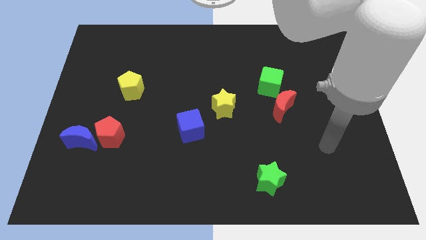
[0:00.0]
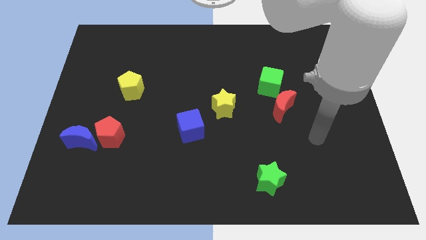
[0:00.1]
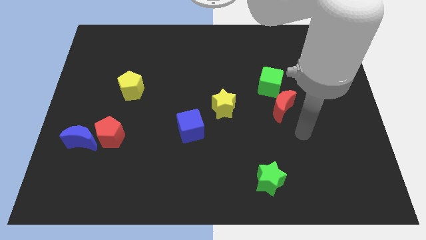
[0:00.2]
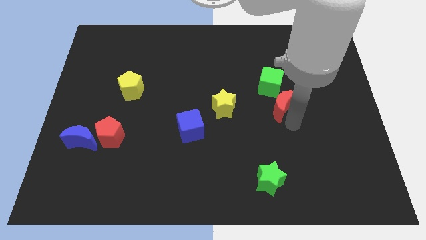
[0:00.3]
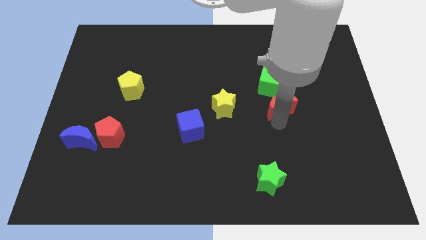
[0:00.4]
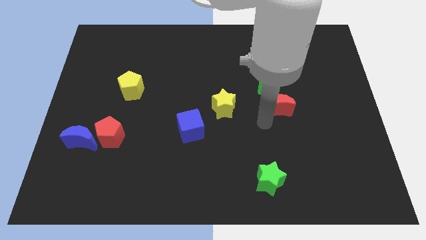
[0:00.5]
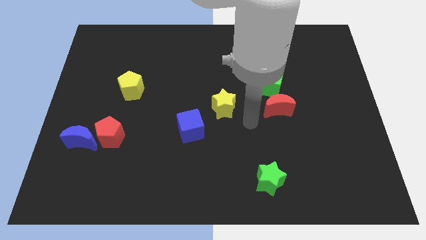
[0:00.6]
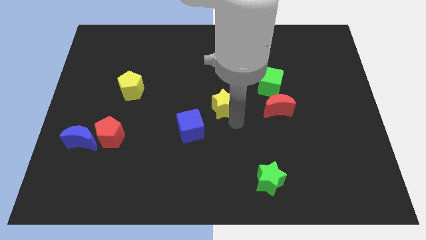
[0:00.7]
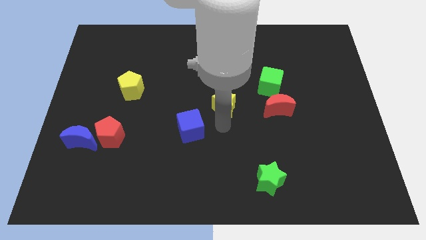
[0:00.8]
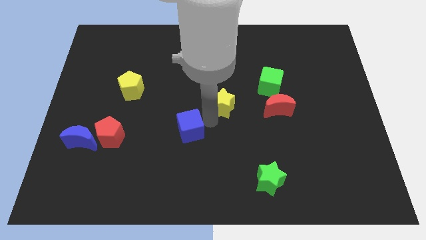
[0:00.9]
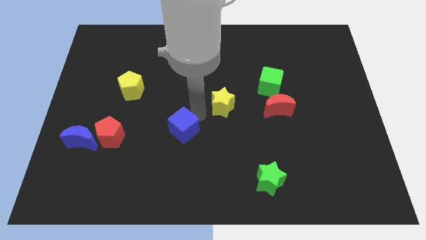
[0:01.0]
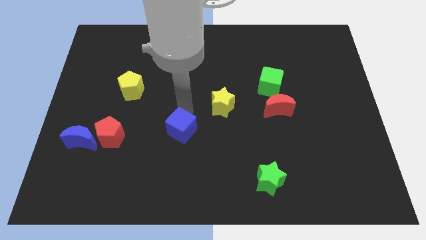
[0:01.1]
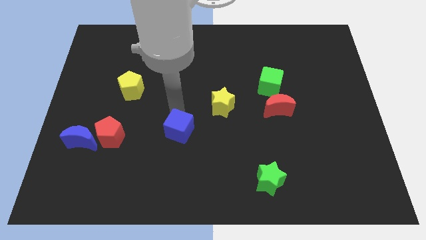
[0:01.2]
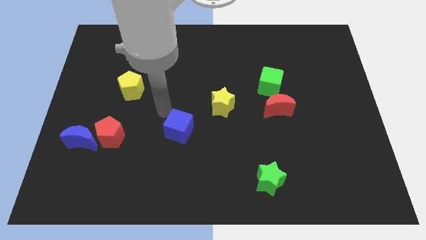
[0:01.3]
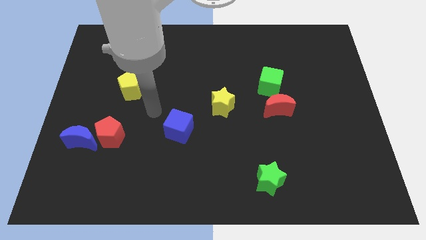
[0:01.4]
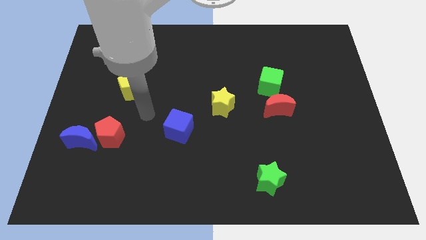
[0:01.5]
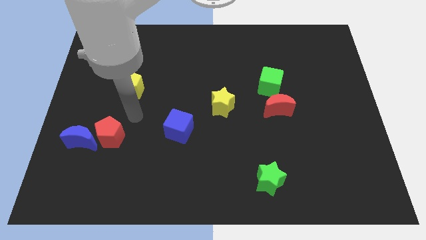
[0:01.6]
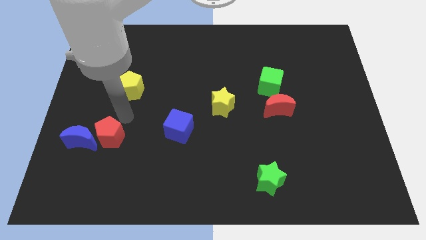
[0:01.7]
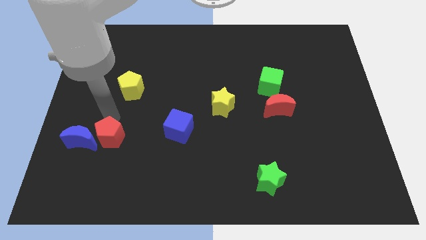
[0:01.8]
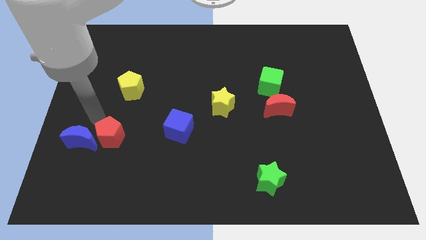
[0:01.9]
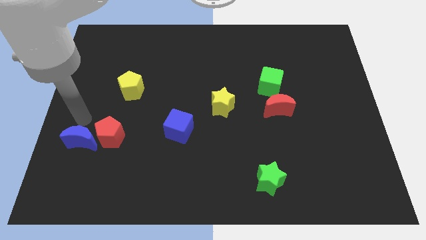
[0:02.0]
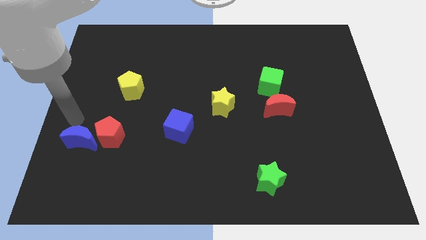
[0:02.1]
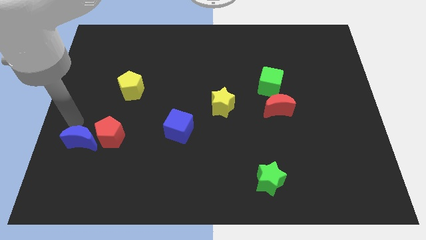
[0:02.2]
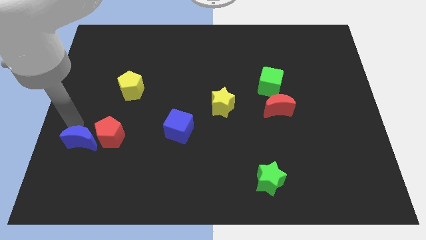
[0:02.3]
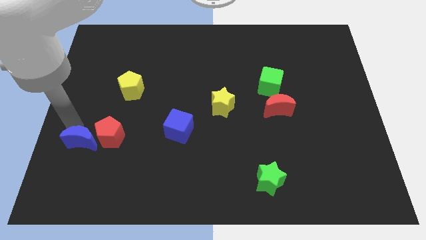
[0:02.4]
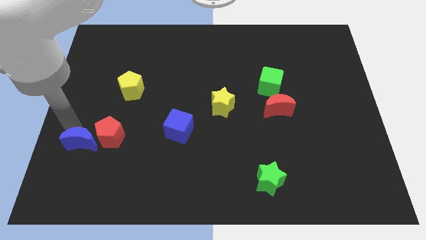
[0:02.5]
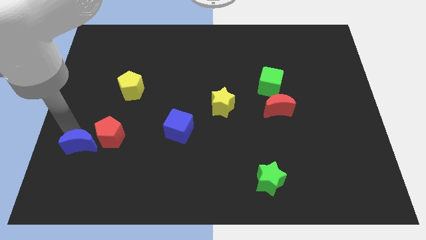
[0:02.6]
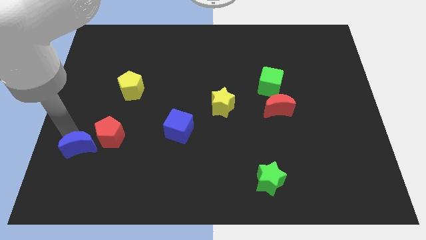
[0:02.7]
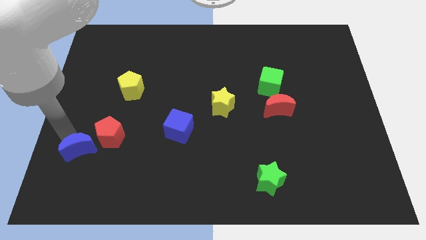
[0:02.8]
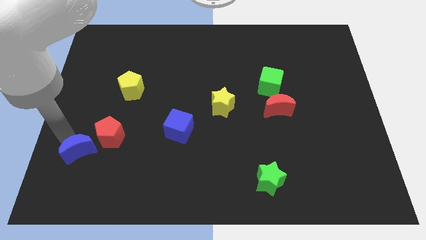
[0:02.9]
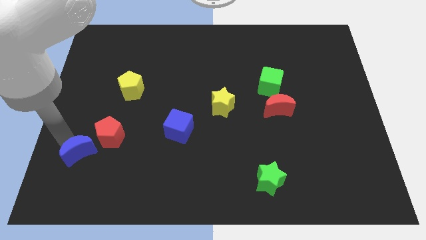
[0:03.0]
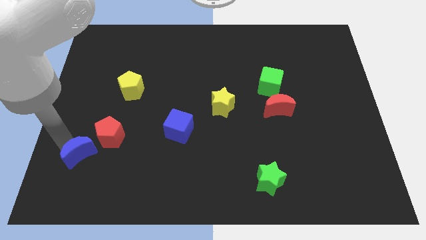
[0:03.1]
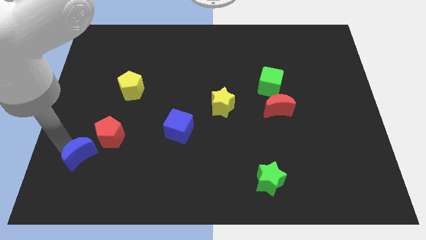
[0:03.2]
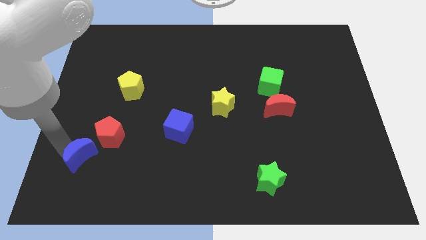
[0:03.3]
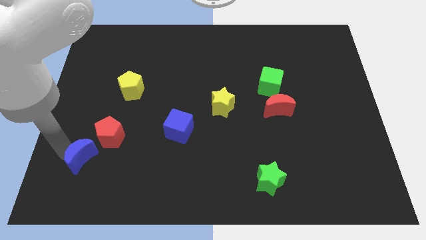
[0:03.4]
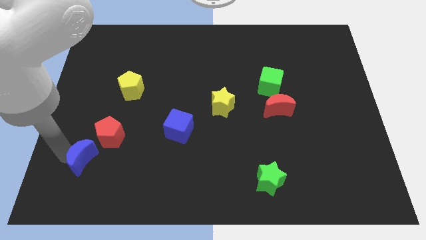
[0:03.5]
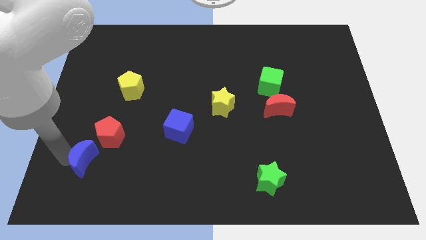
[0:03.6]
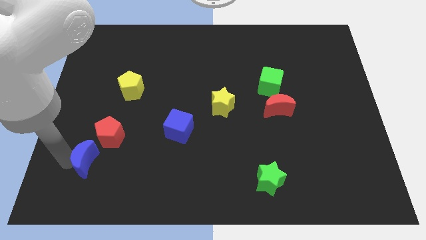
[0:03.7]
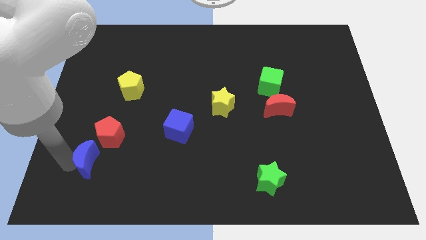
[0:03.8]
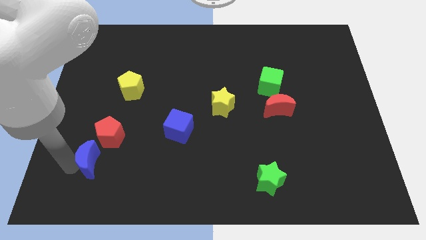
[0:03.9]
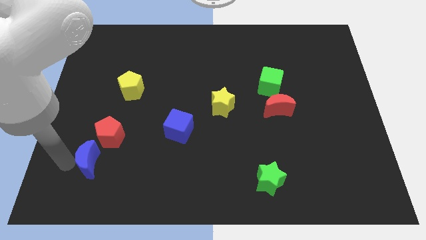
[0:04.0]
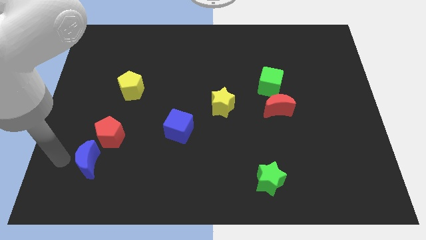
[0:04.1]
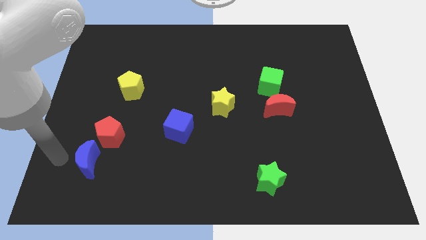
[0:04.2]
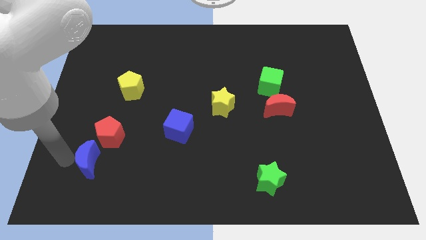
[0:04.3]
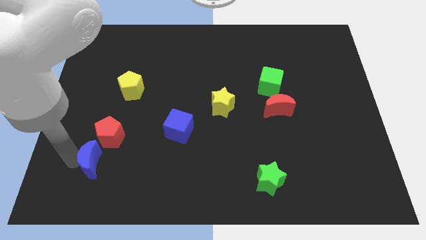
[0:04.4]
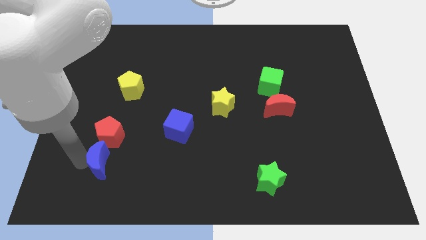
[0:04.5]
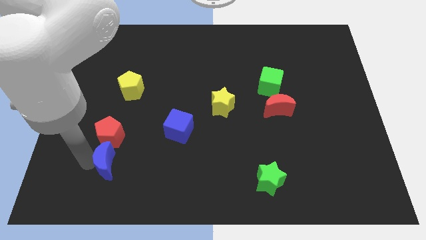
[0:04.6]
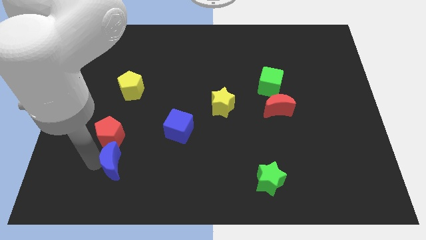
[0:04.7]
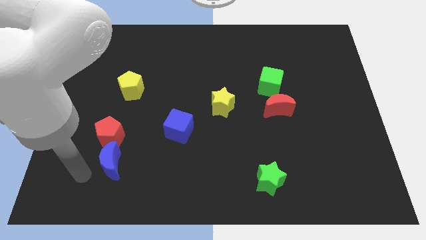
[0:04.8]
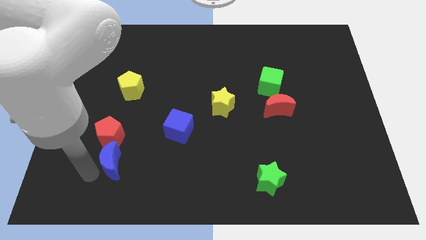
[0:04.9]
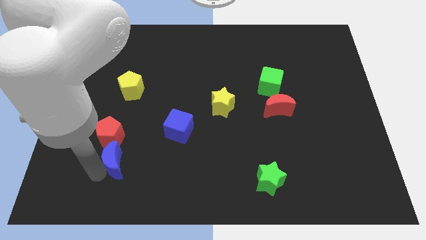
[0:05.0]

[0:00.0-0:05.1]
move the blue moon a little to the right

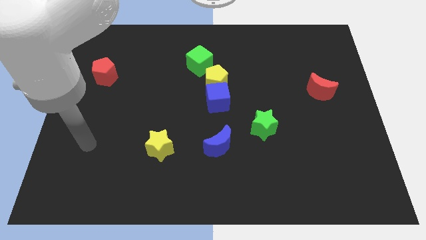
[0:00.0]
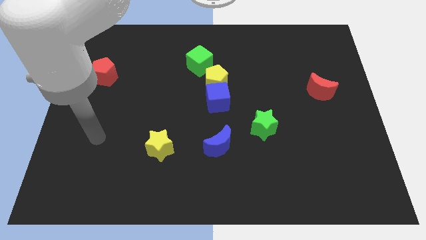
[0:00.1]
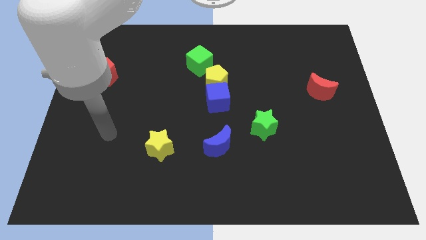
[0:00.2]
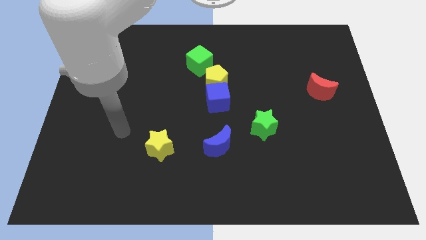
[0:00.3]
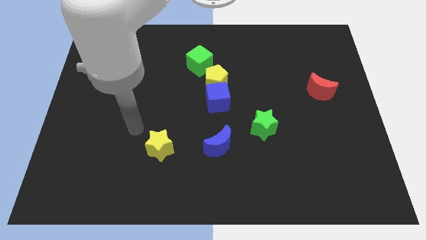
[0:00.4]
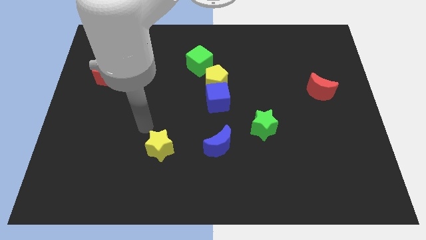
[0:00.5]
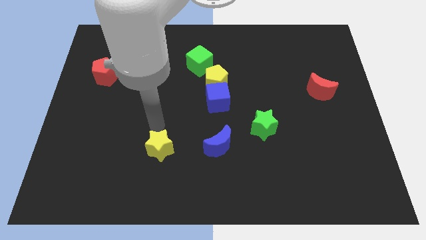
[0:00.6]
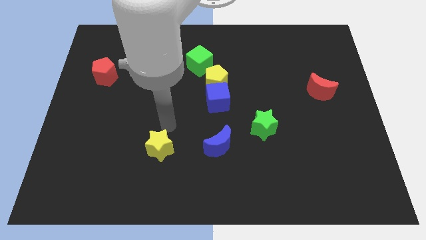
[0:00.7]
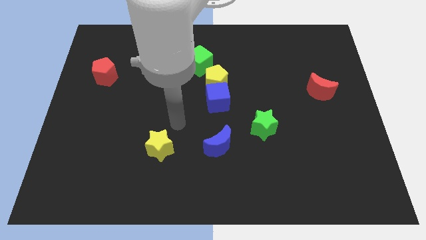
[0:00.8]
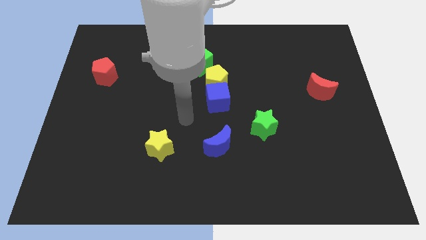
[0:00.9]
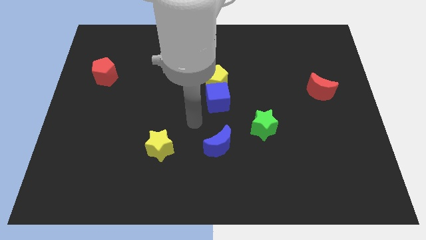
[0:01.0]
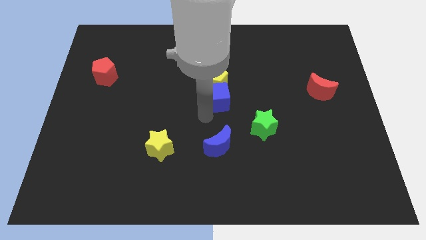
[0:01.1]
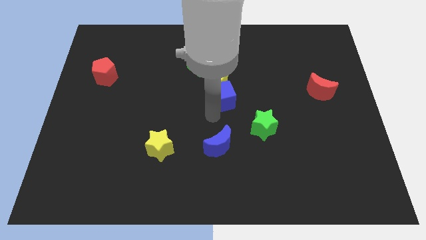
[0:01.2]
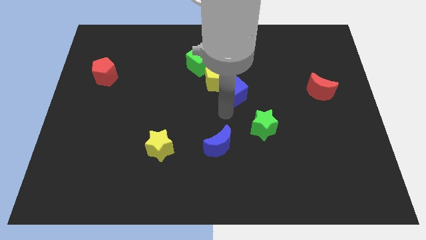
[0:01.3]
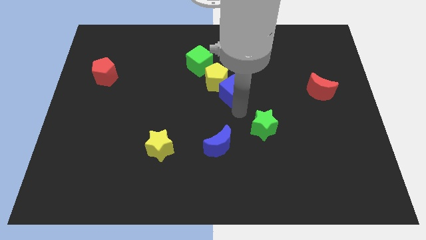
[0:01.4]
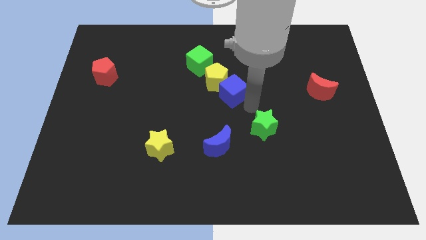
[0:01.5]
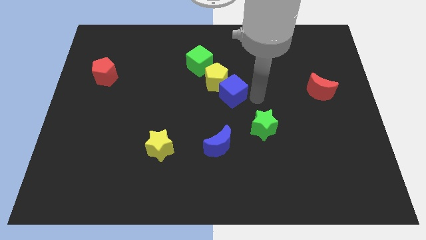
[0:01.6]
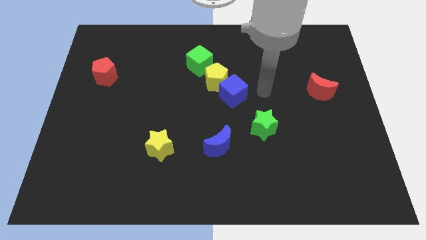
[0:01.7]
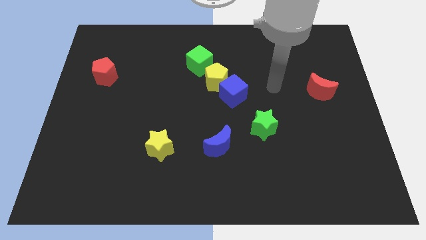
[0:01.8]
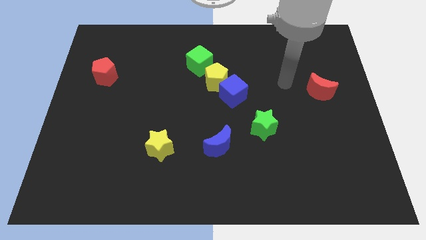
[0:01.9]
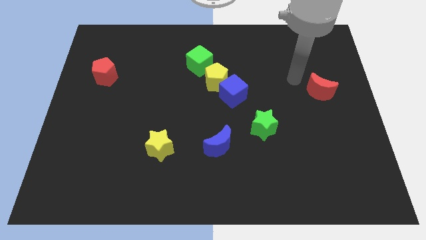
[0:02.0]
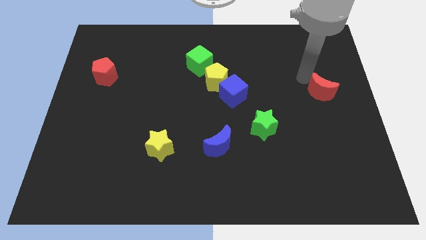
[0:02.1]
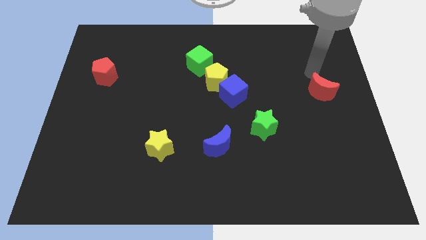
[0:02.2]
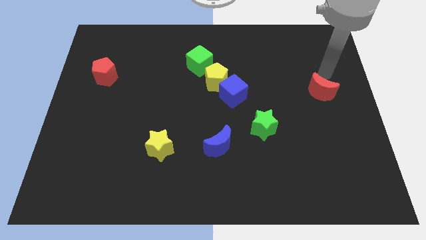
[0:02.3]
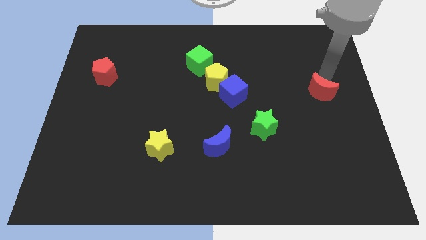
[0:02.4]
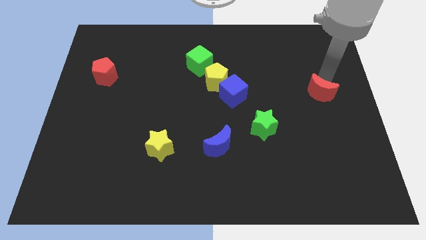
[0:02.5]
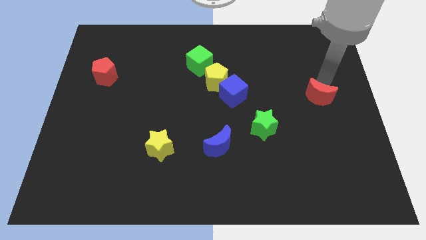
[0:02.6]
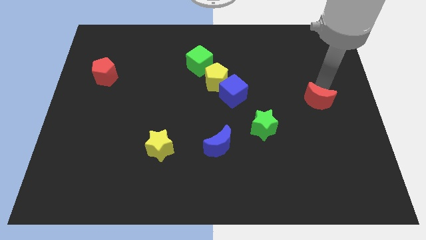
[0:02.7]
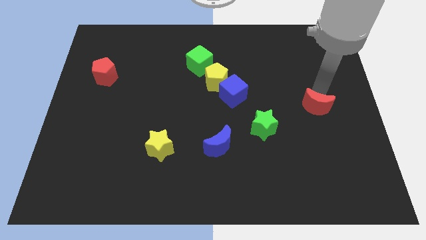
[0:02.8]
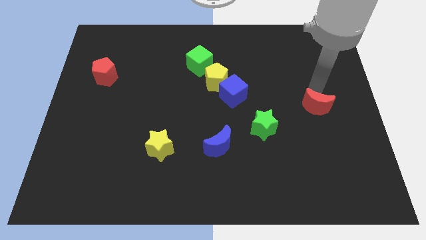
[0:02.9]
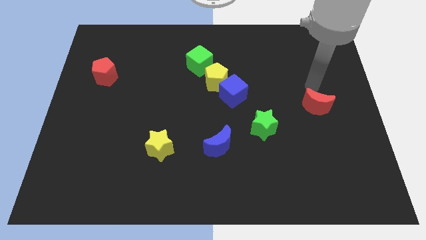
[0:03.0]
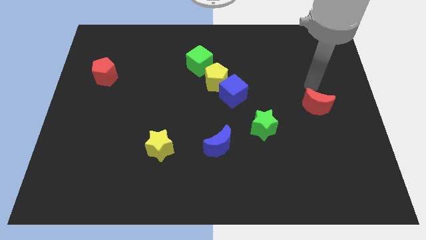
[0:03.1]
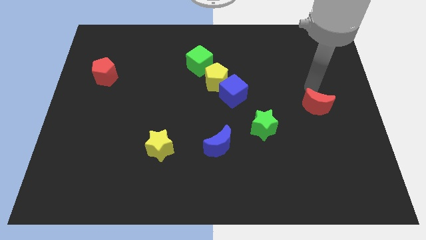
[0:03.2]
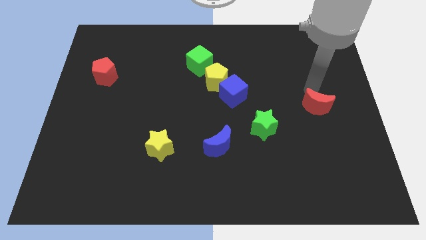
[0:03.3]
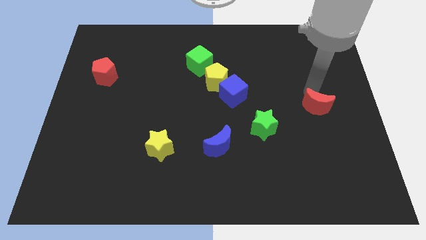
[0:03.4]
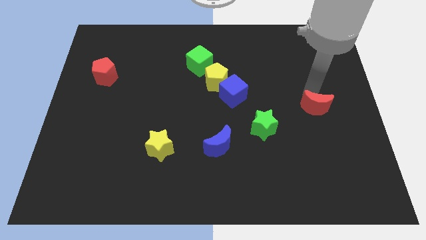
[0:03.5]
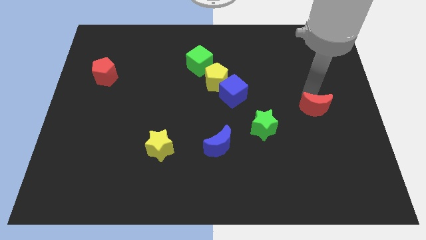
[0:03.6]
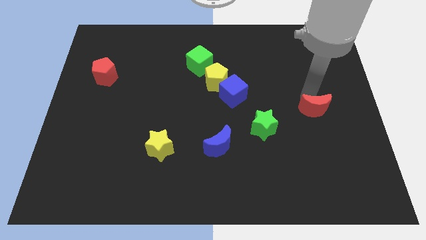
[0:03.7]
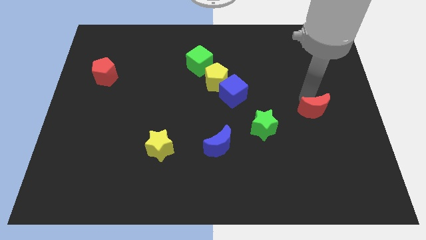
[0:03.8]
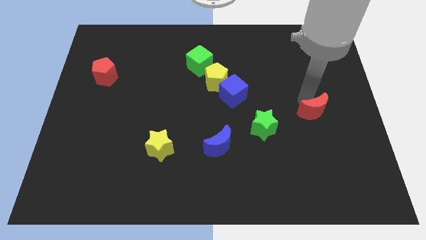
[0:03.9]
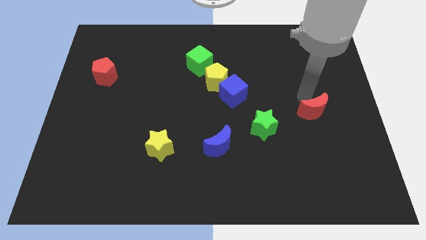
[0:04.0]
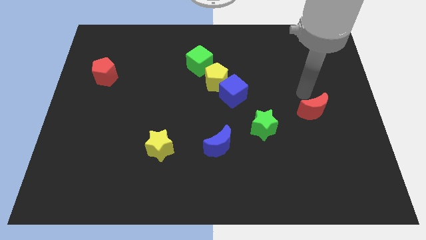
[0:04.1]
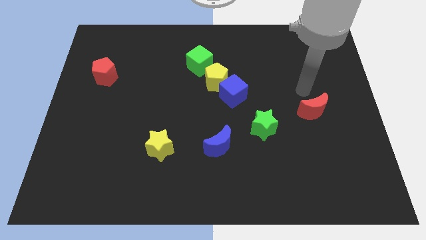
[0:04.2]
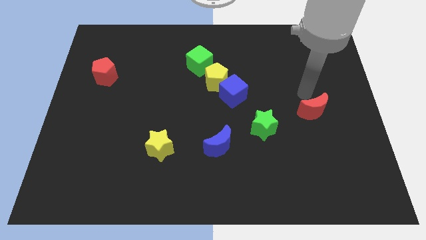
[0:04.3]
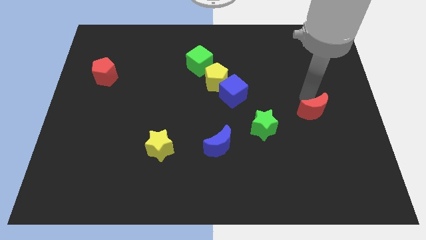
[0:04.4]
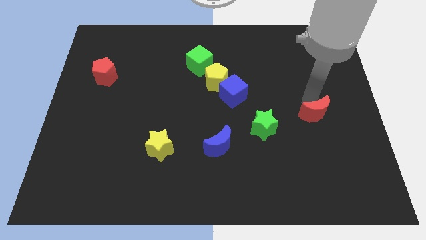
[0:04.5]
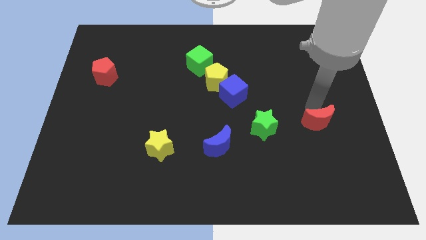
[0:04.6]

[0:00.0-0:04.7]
move the red moon slightly down
